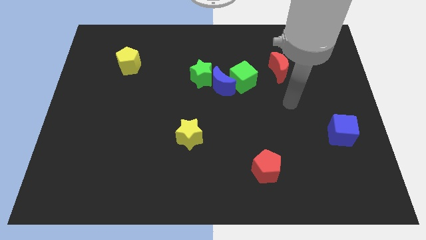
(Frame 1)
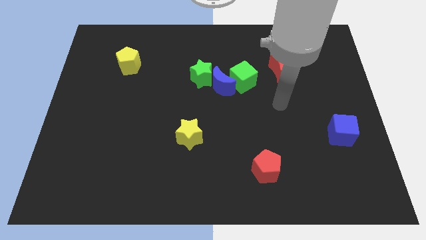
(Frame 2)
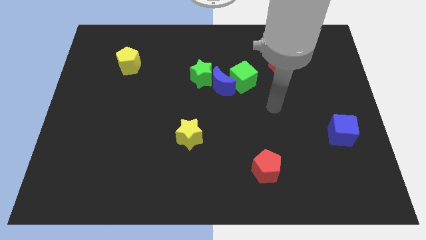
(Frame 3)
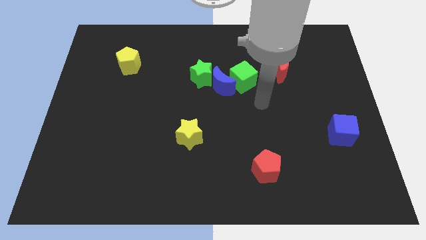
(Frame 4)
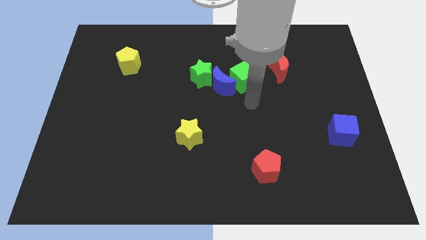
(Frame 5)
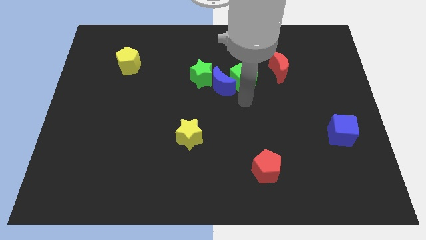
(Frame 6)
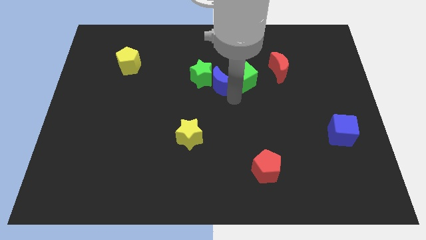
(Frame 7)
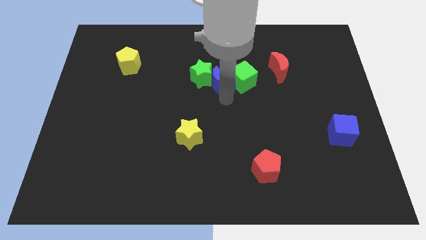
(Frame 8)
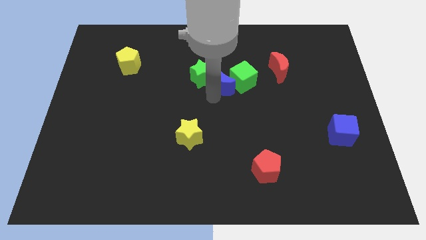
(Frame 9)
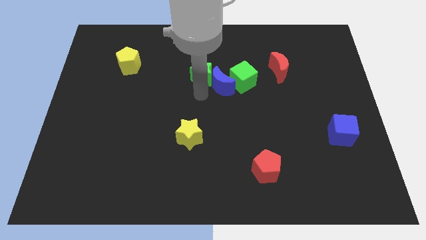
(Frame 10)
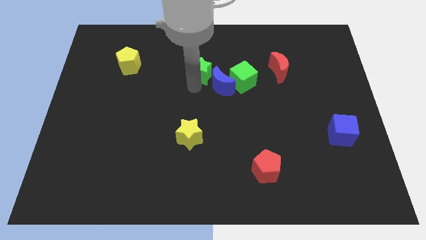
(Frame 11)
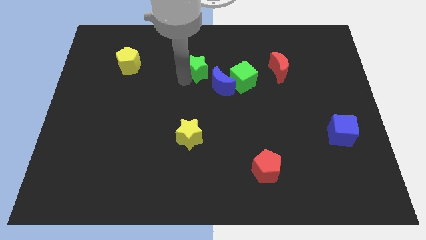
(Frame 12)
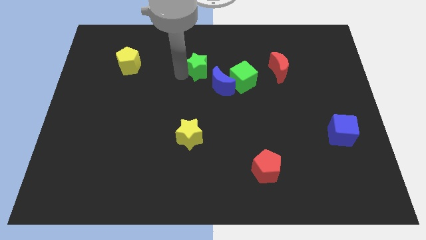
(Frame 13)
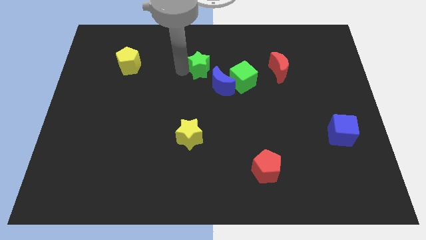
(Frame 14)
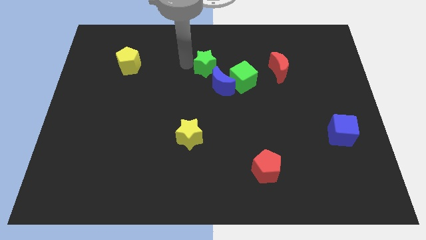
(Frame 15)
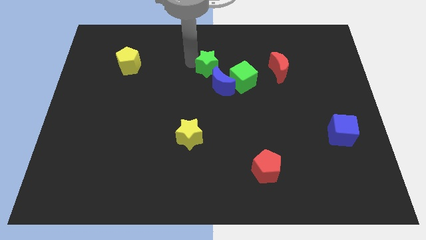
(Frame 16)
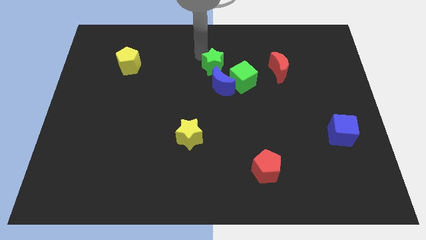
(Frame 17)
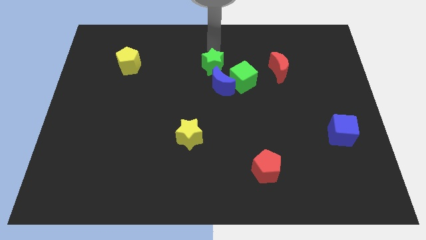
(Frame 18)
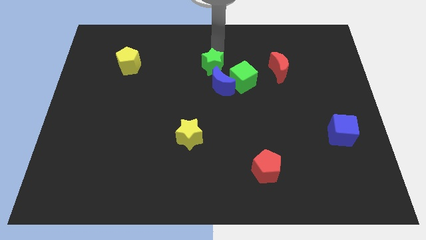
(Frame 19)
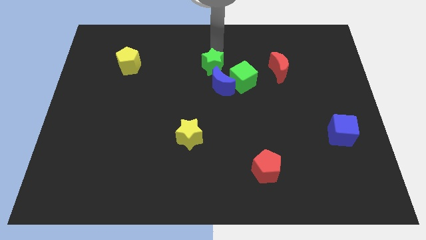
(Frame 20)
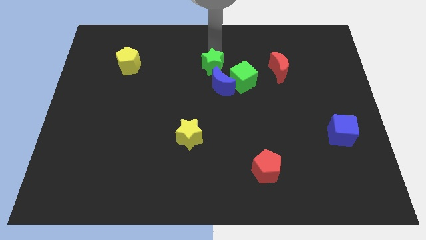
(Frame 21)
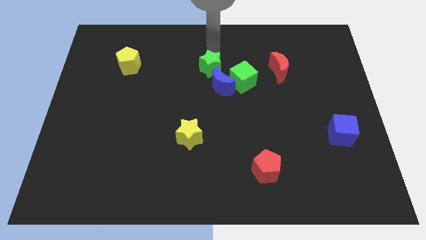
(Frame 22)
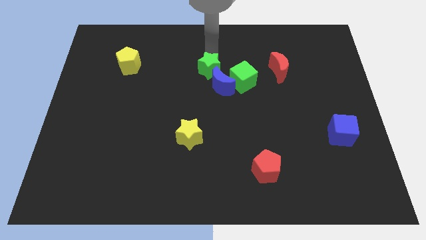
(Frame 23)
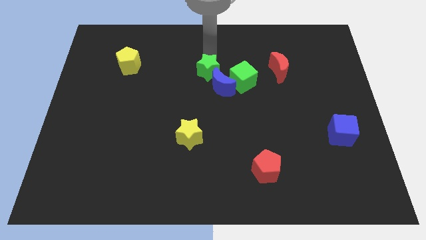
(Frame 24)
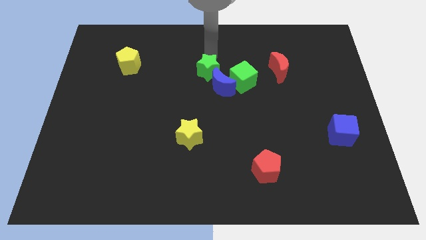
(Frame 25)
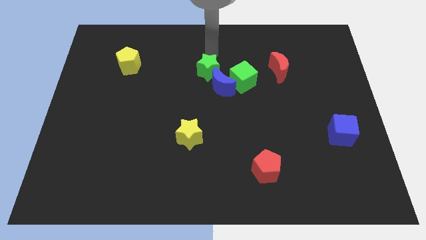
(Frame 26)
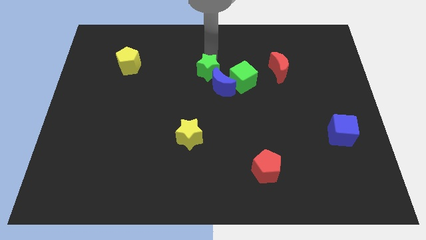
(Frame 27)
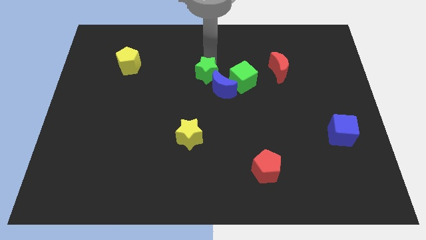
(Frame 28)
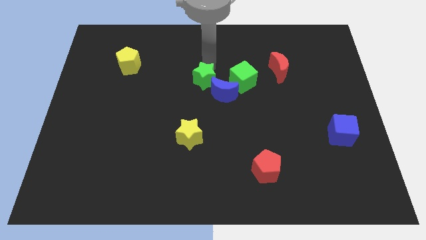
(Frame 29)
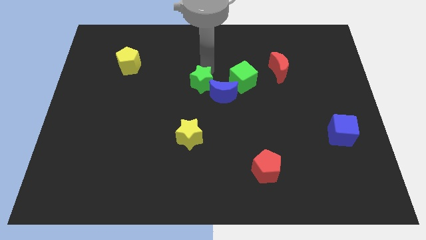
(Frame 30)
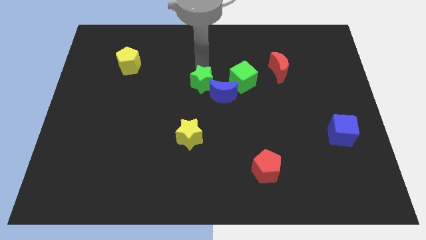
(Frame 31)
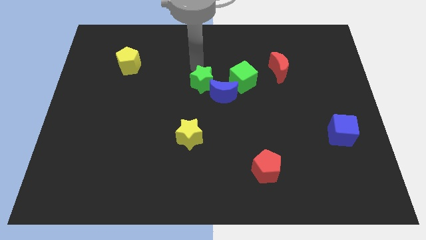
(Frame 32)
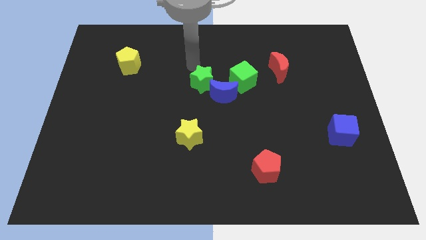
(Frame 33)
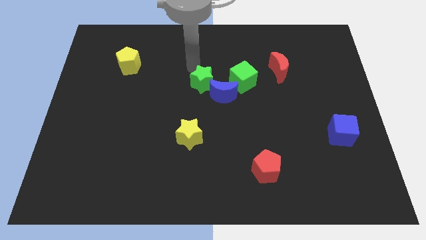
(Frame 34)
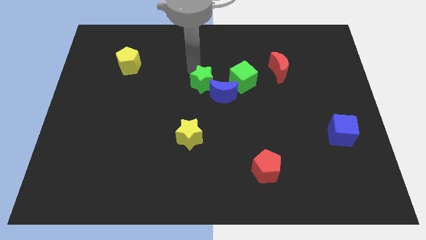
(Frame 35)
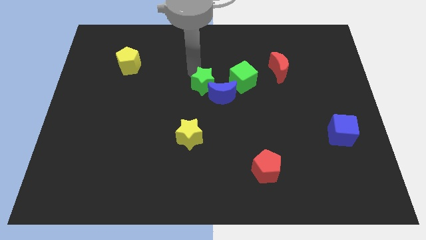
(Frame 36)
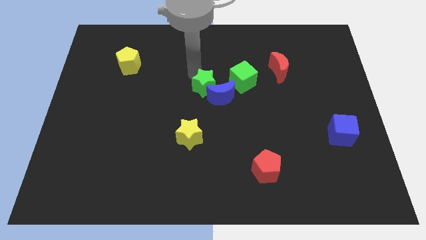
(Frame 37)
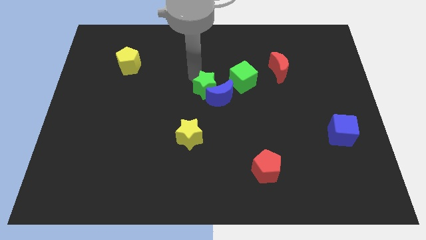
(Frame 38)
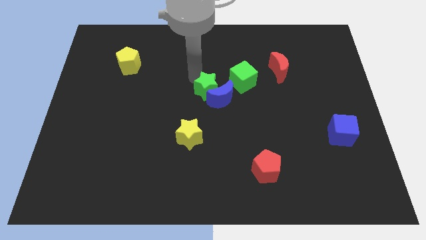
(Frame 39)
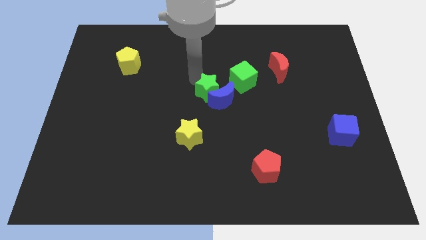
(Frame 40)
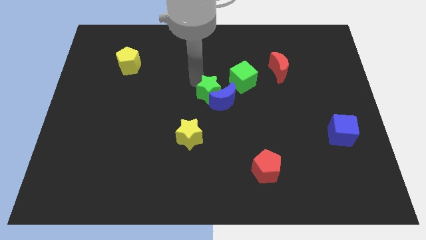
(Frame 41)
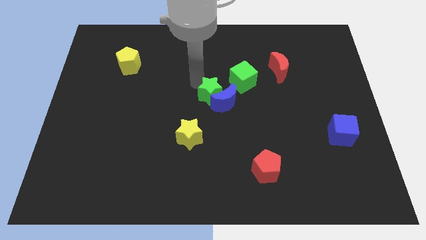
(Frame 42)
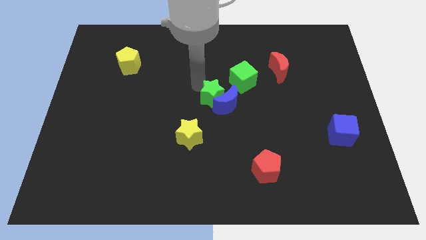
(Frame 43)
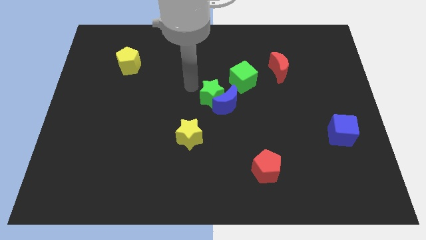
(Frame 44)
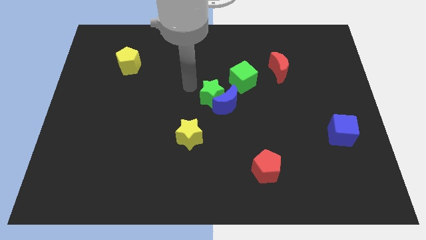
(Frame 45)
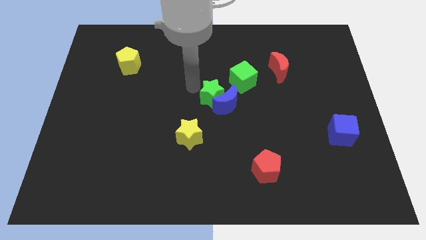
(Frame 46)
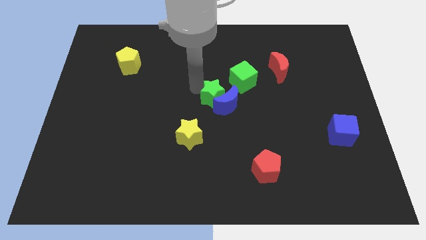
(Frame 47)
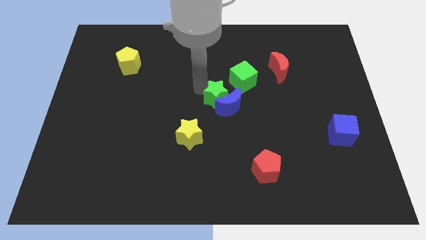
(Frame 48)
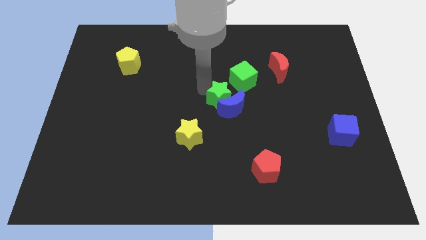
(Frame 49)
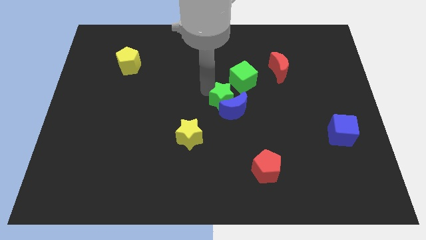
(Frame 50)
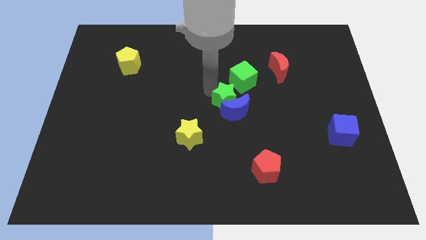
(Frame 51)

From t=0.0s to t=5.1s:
slide the green star to the bottom of the green cube

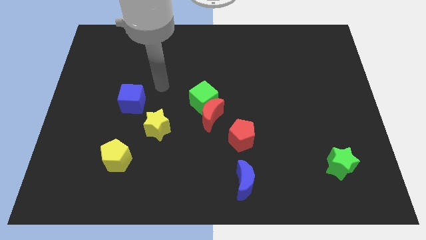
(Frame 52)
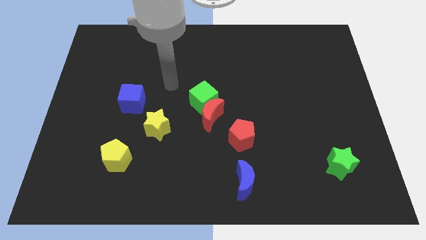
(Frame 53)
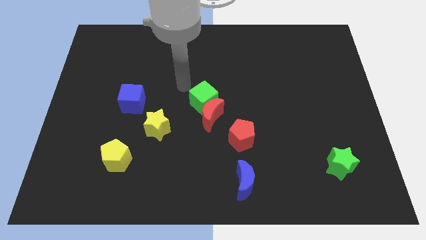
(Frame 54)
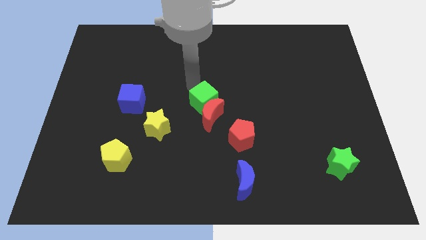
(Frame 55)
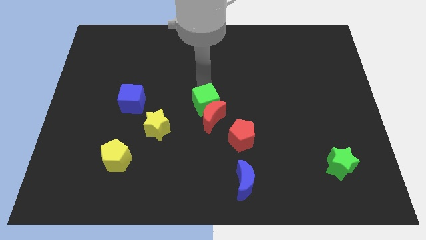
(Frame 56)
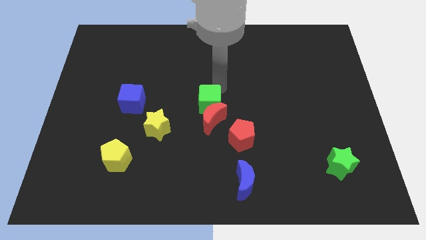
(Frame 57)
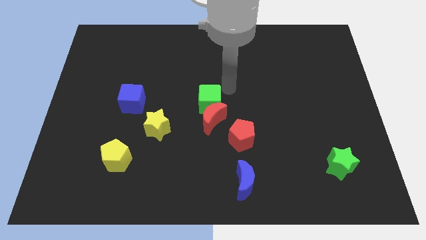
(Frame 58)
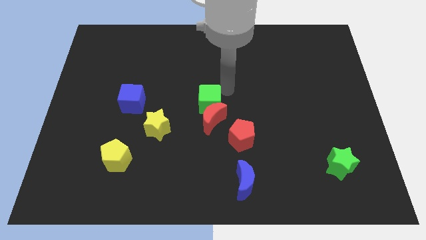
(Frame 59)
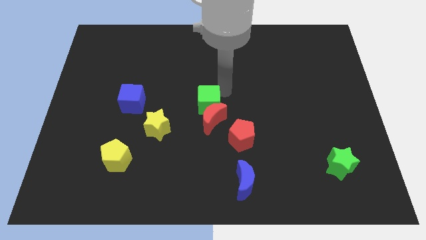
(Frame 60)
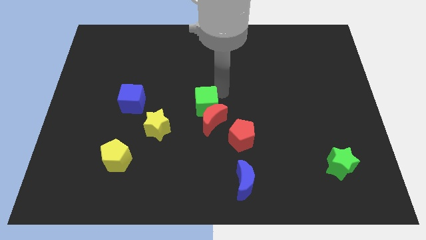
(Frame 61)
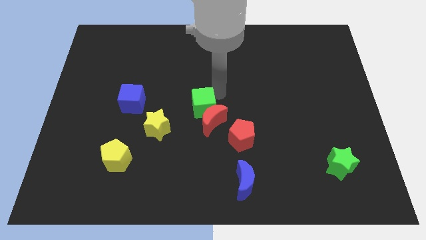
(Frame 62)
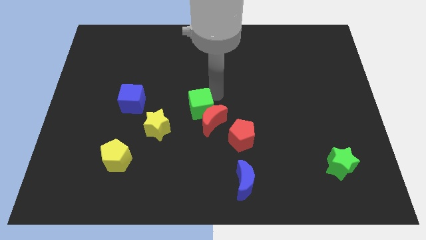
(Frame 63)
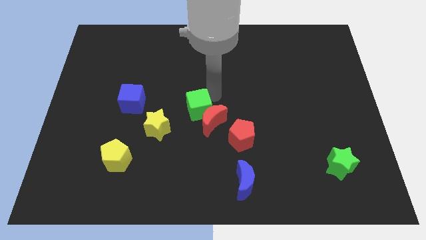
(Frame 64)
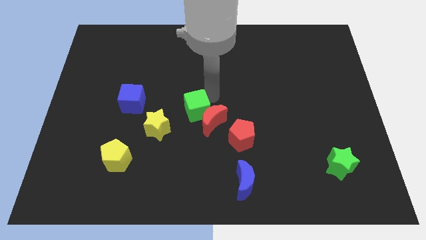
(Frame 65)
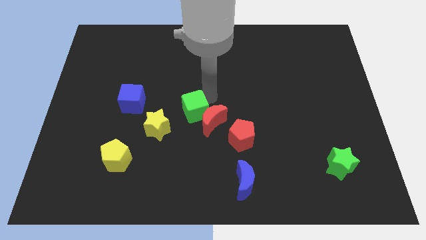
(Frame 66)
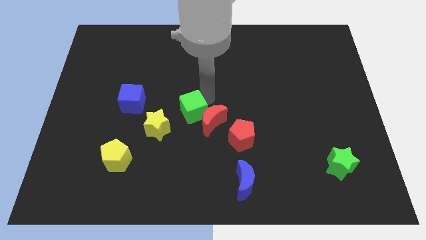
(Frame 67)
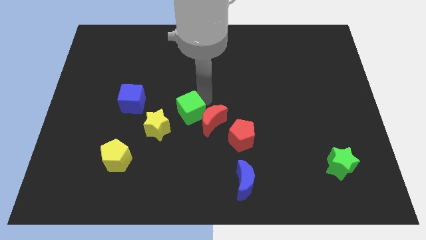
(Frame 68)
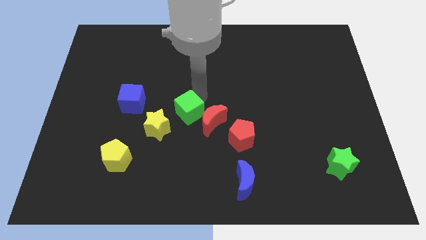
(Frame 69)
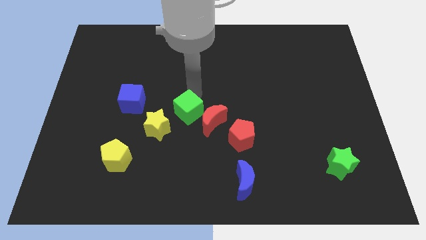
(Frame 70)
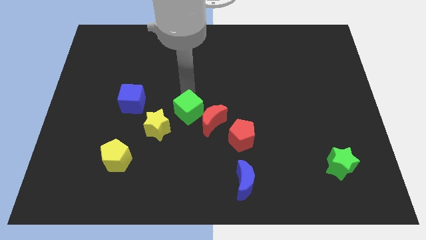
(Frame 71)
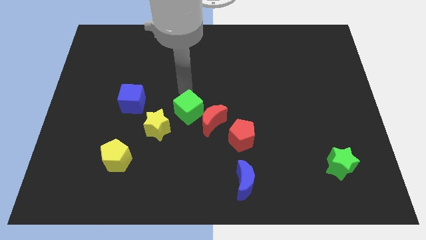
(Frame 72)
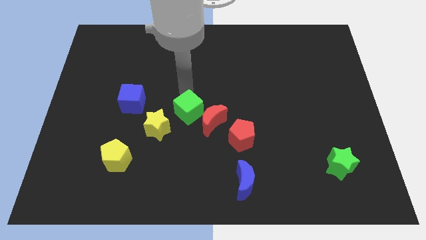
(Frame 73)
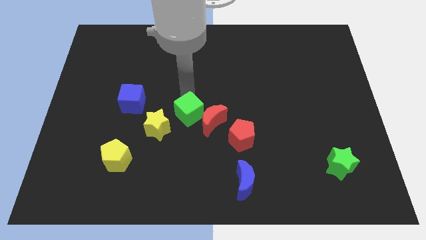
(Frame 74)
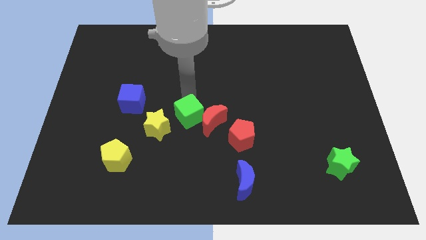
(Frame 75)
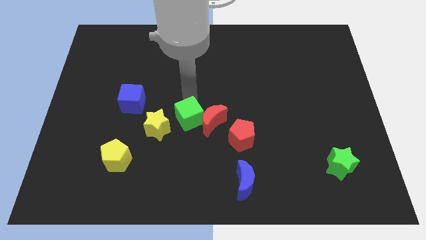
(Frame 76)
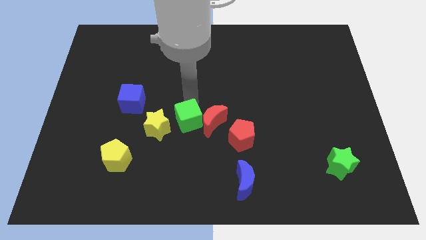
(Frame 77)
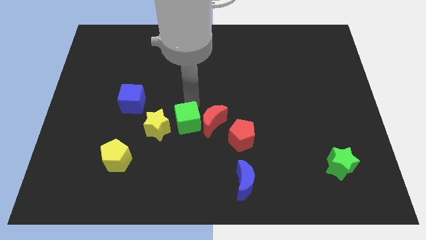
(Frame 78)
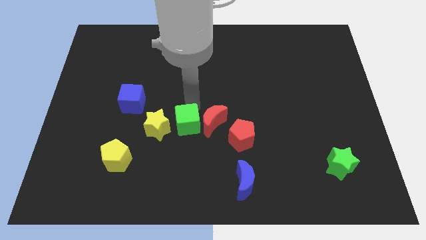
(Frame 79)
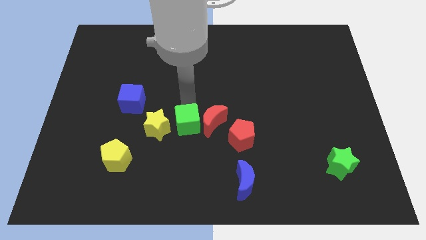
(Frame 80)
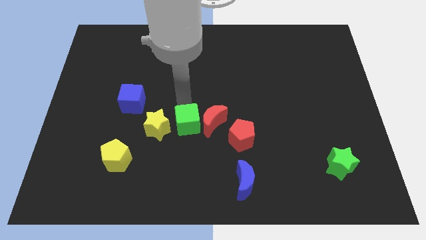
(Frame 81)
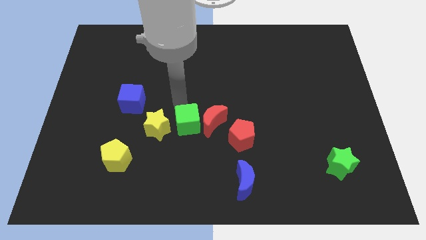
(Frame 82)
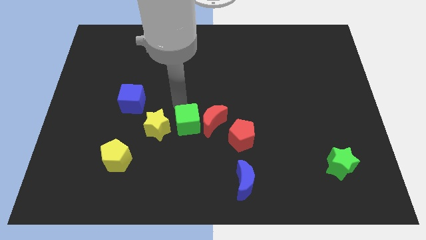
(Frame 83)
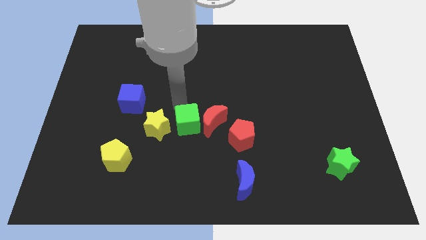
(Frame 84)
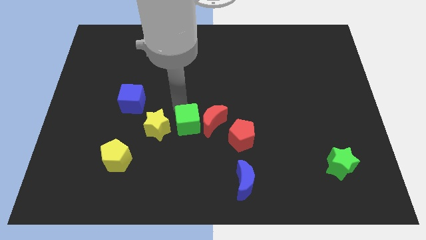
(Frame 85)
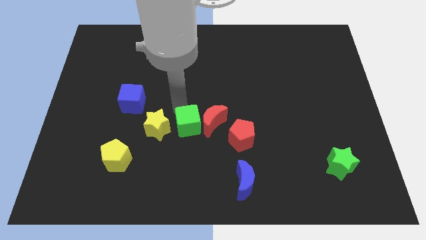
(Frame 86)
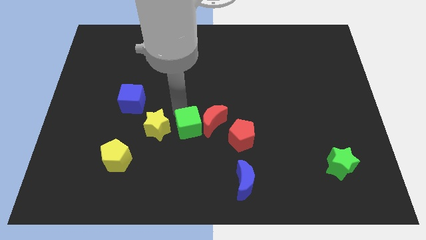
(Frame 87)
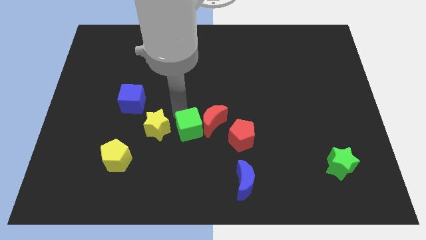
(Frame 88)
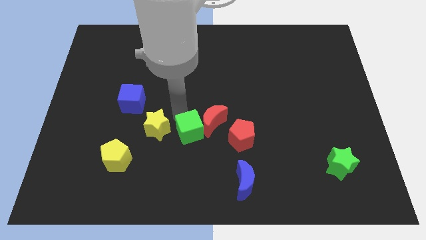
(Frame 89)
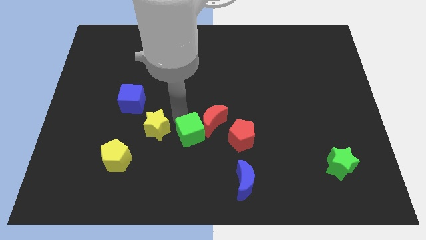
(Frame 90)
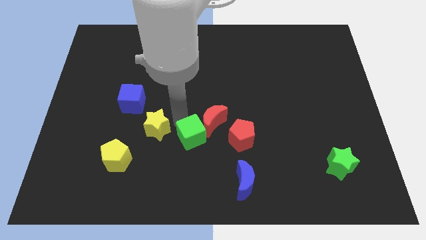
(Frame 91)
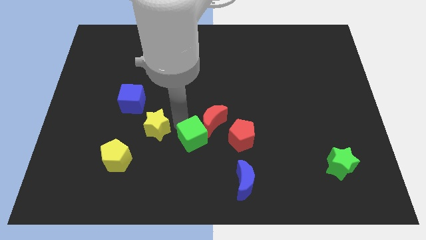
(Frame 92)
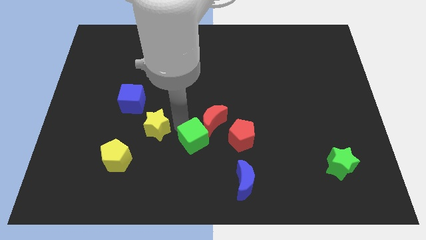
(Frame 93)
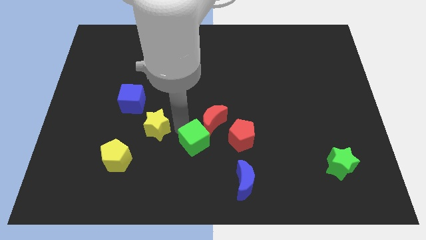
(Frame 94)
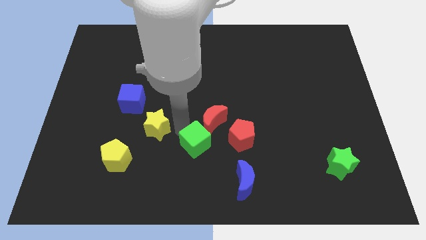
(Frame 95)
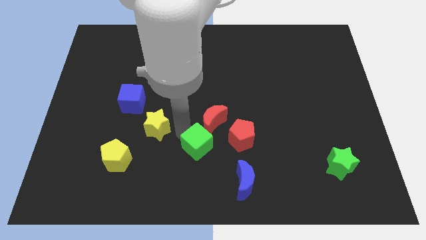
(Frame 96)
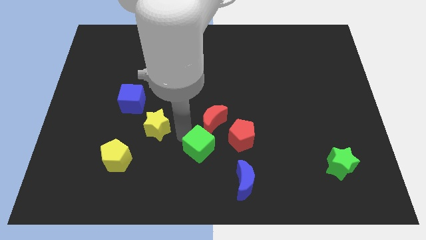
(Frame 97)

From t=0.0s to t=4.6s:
slide the green cube to the top left of the blue moon
